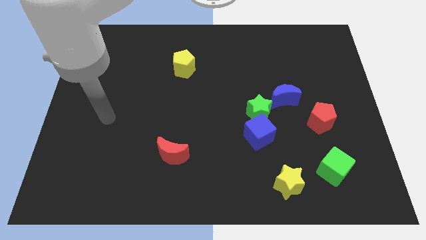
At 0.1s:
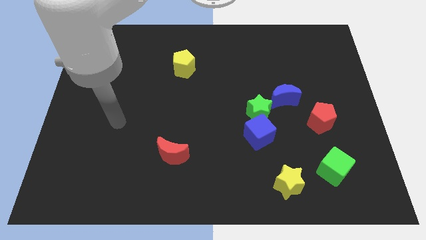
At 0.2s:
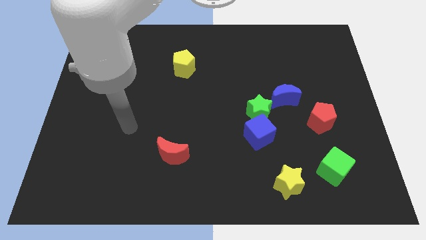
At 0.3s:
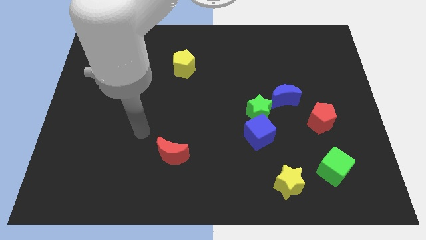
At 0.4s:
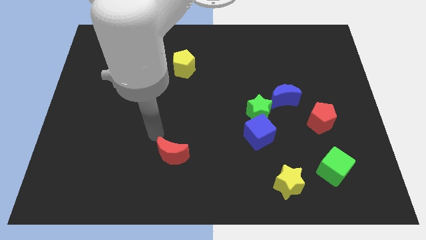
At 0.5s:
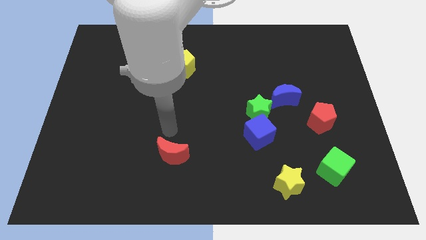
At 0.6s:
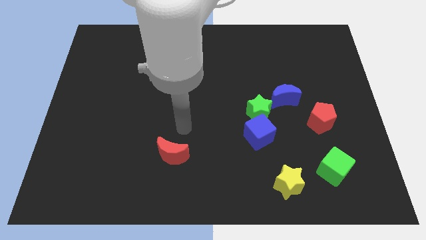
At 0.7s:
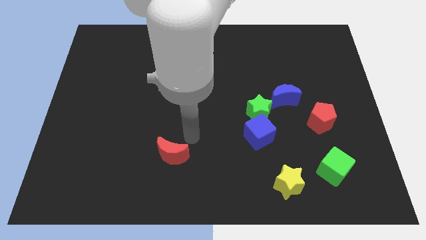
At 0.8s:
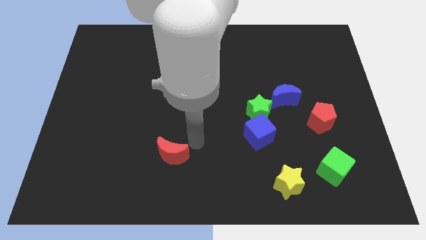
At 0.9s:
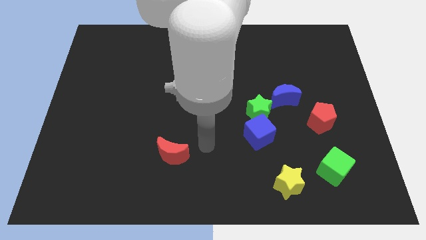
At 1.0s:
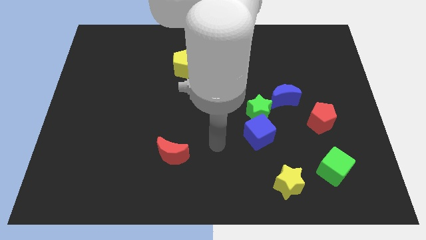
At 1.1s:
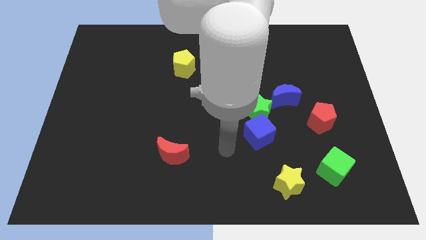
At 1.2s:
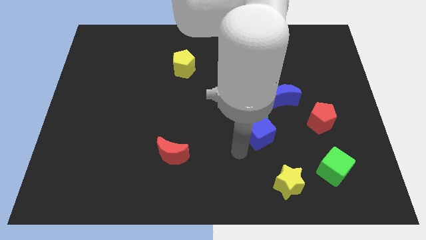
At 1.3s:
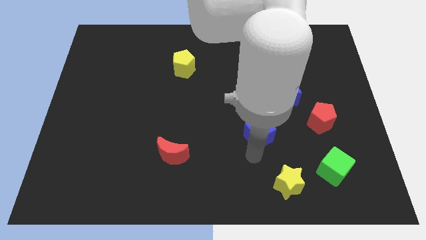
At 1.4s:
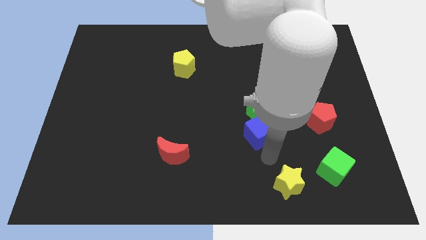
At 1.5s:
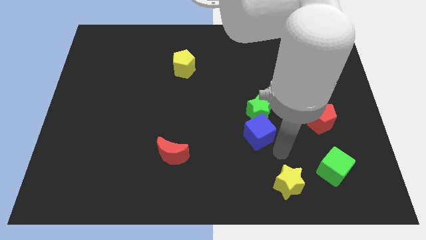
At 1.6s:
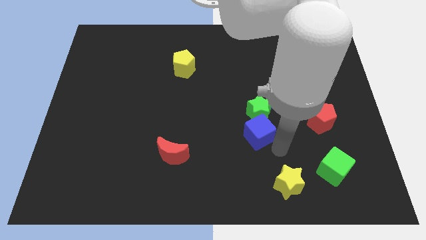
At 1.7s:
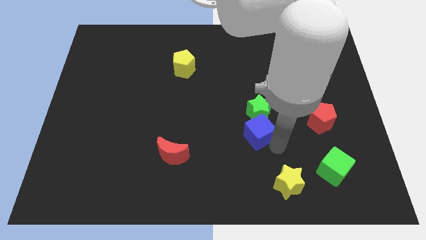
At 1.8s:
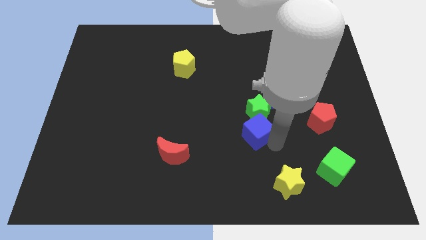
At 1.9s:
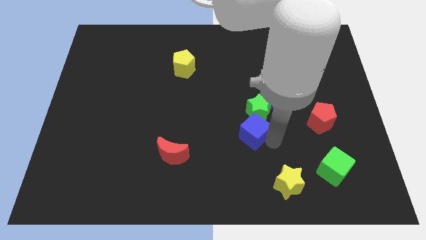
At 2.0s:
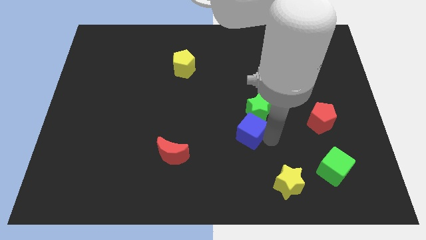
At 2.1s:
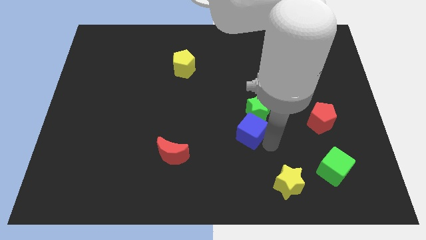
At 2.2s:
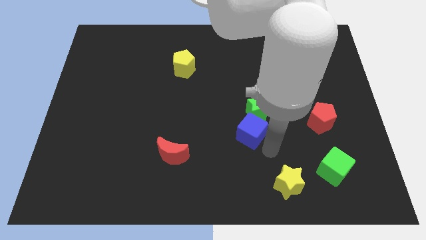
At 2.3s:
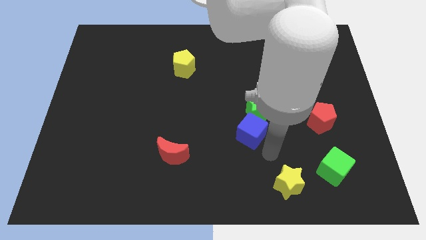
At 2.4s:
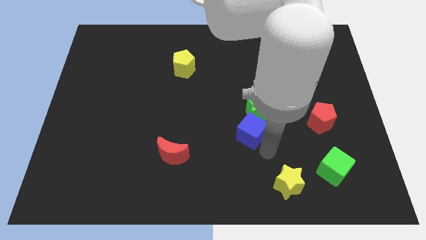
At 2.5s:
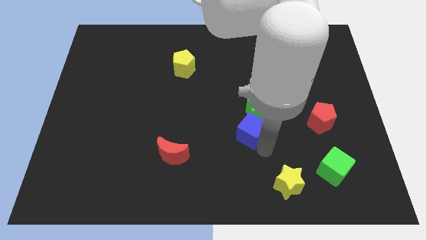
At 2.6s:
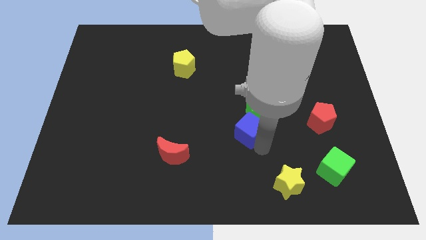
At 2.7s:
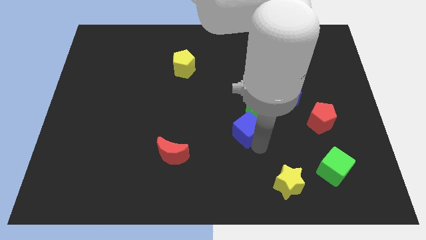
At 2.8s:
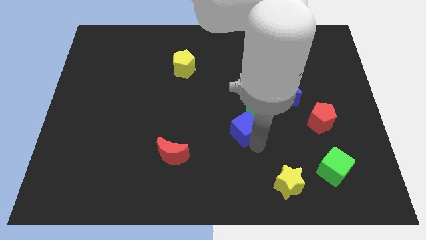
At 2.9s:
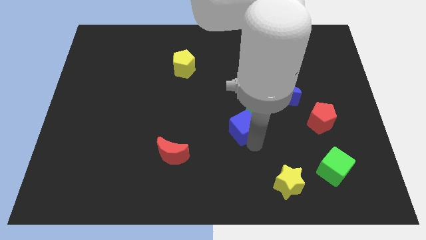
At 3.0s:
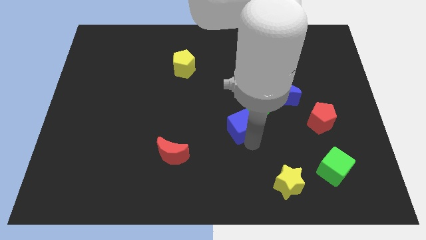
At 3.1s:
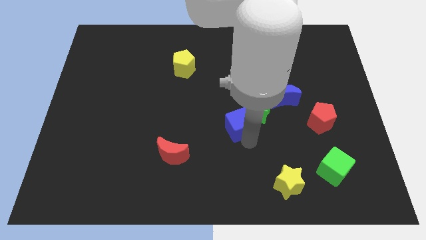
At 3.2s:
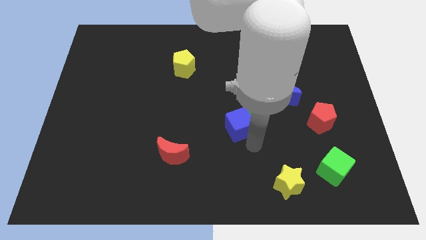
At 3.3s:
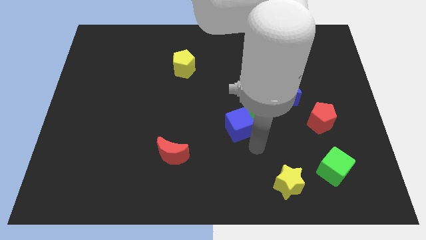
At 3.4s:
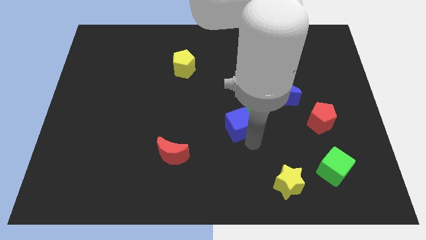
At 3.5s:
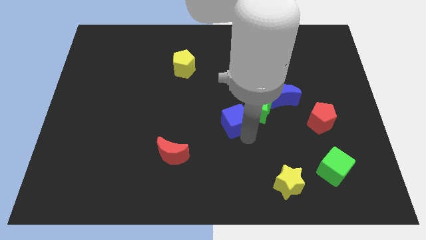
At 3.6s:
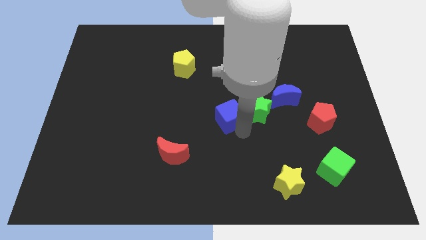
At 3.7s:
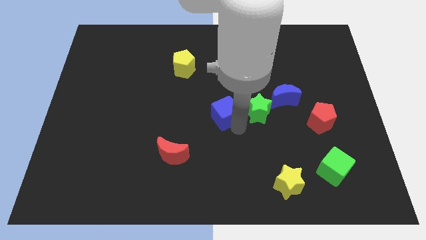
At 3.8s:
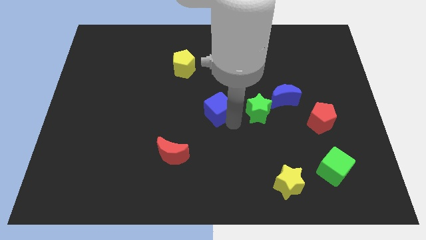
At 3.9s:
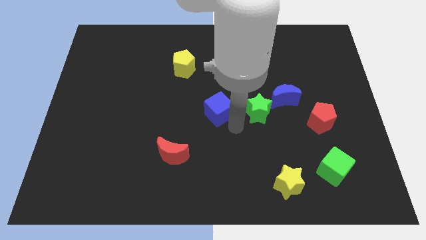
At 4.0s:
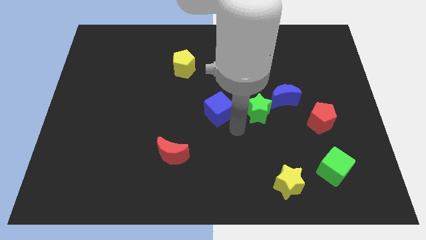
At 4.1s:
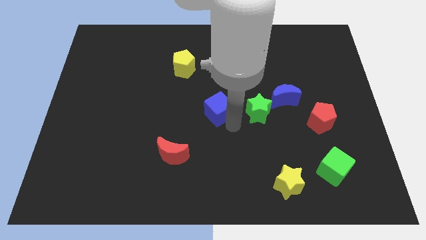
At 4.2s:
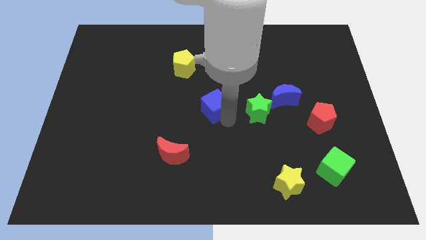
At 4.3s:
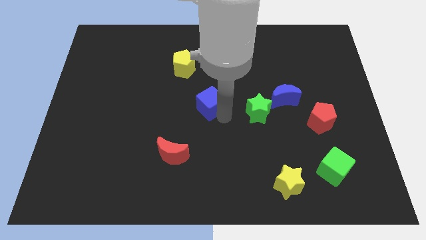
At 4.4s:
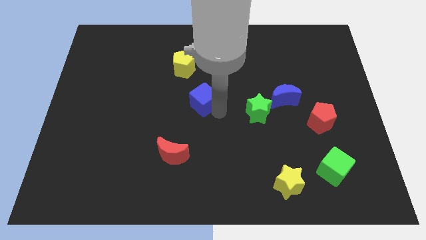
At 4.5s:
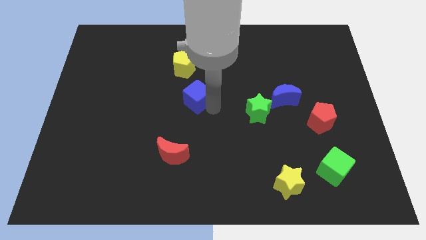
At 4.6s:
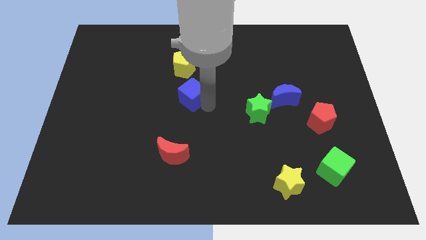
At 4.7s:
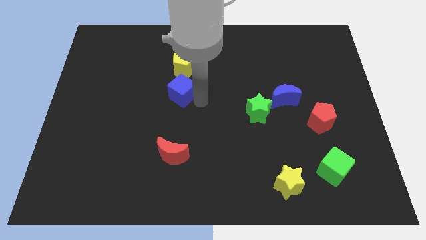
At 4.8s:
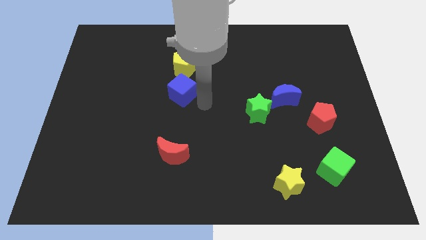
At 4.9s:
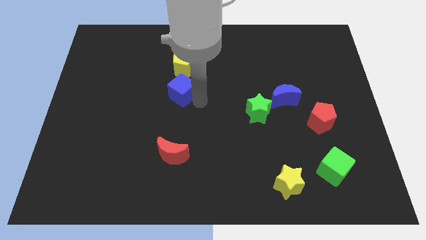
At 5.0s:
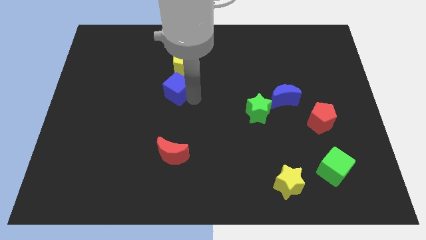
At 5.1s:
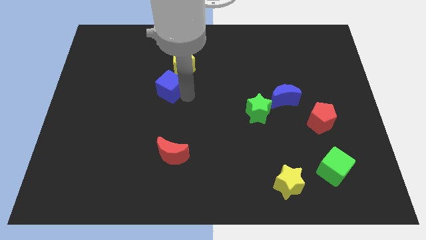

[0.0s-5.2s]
move the blue cube to the bottom left of the yellow pentagon
